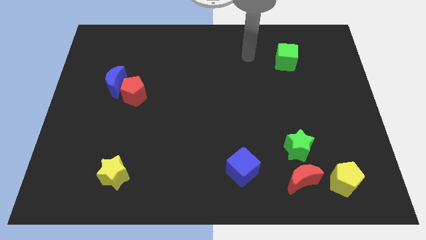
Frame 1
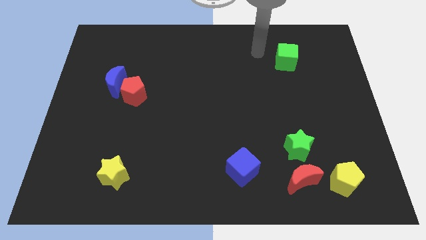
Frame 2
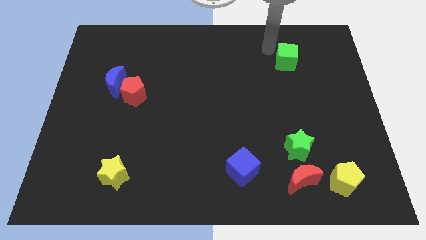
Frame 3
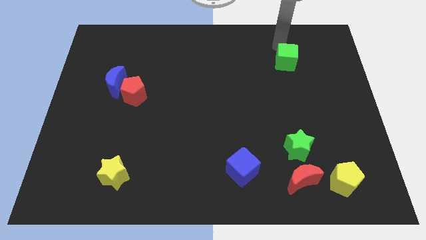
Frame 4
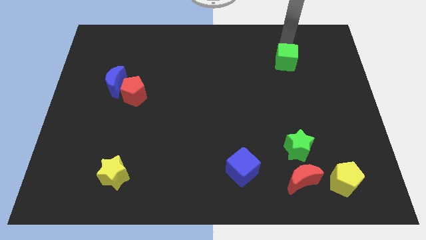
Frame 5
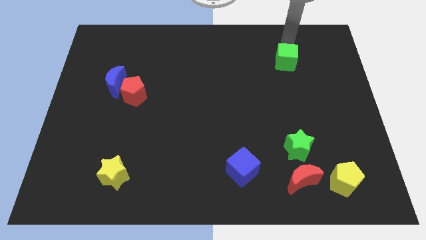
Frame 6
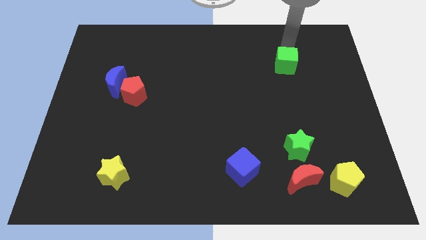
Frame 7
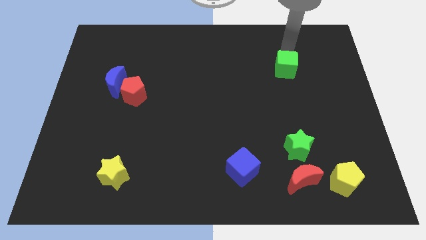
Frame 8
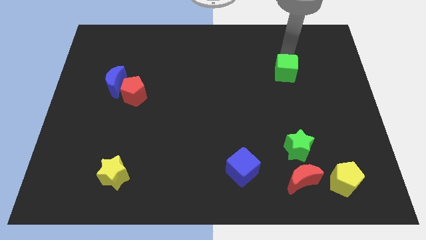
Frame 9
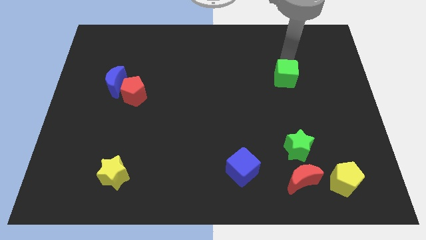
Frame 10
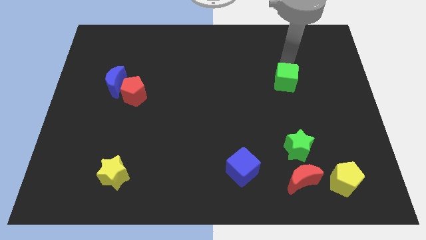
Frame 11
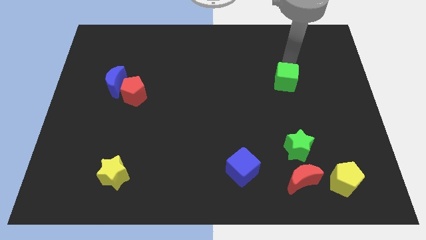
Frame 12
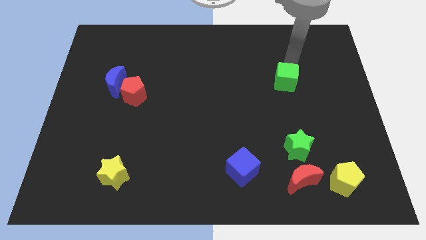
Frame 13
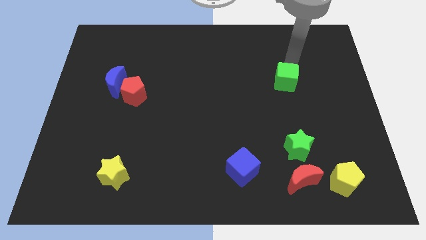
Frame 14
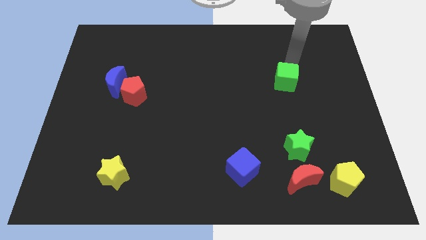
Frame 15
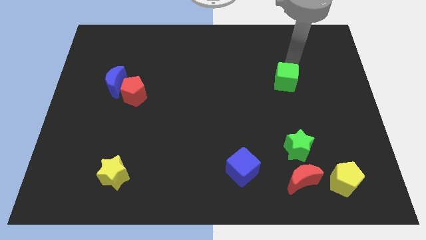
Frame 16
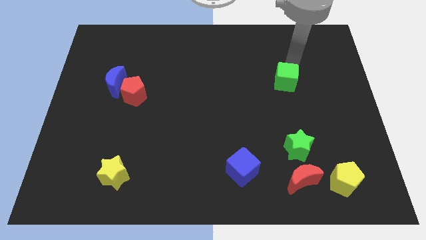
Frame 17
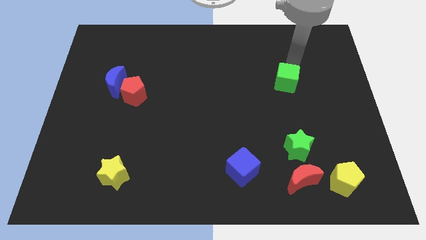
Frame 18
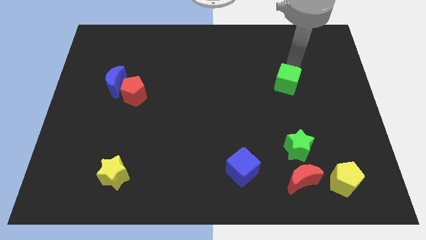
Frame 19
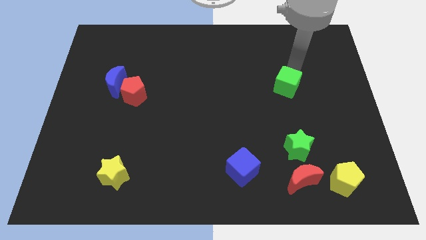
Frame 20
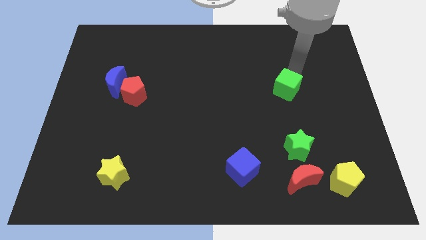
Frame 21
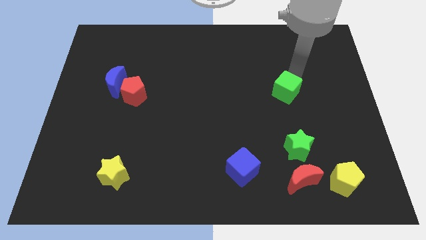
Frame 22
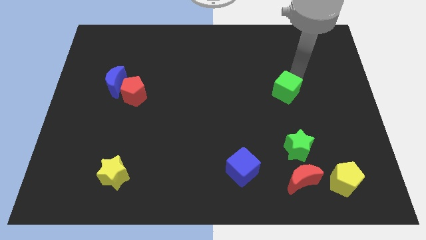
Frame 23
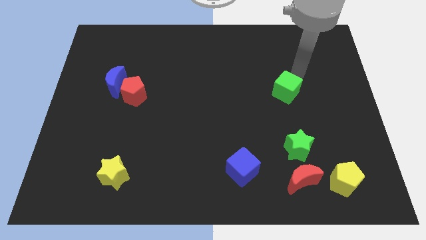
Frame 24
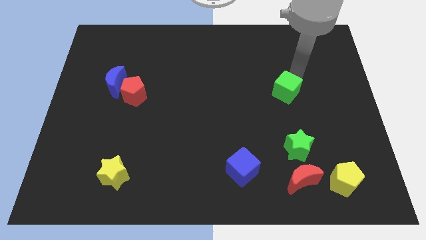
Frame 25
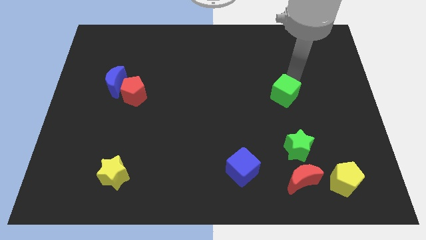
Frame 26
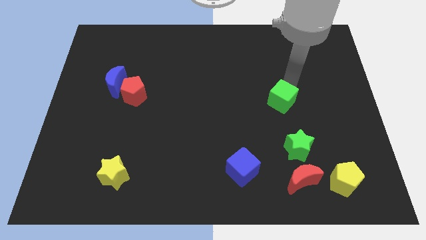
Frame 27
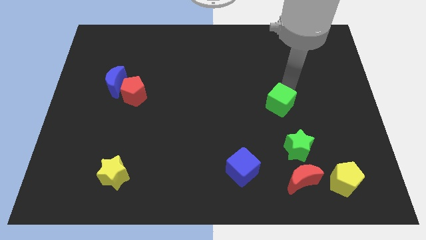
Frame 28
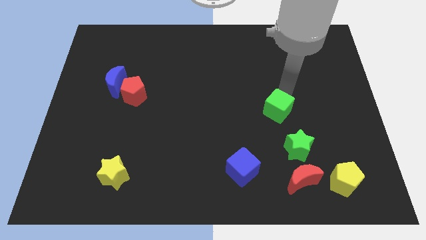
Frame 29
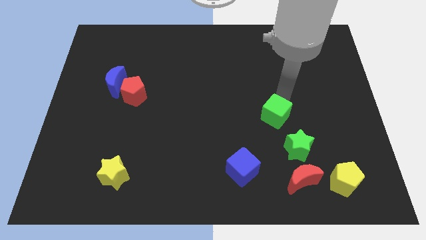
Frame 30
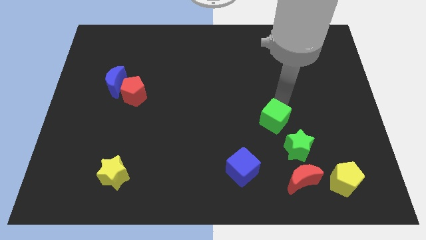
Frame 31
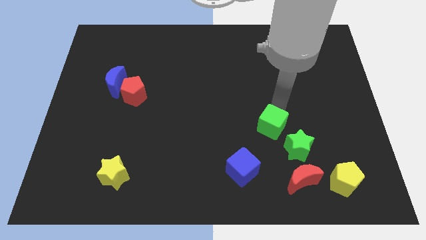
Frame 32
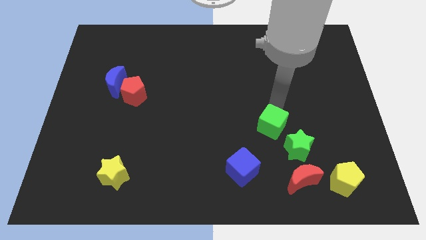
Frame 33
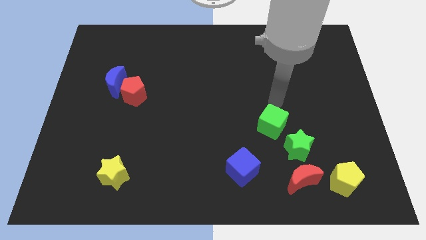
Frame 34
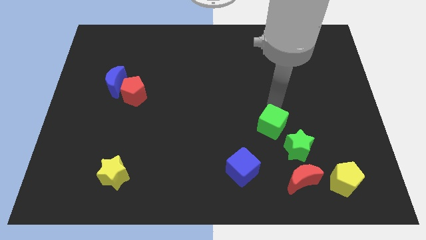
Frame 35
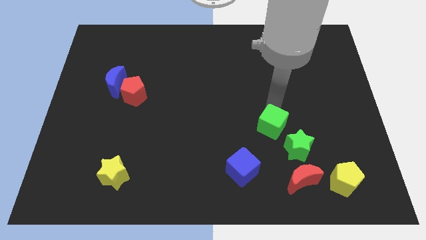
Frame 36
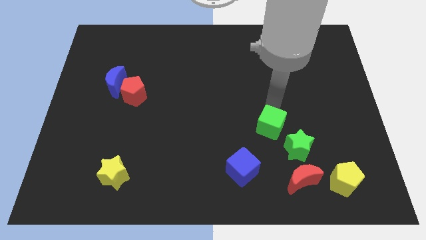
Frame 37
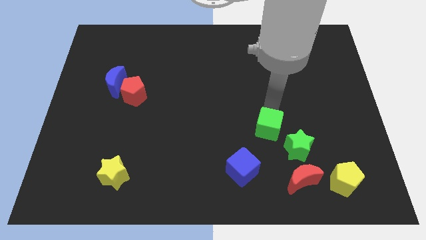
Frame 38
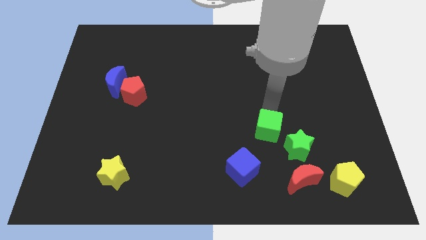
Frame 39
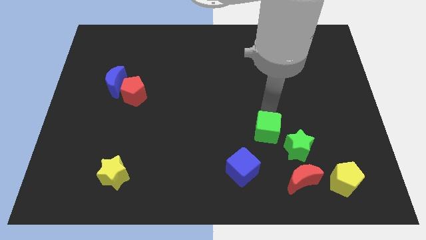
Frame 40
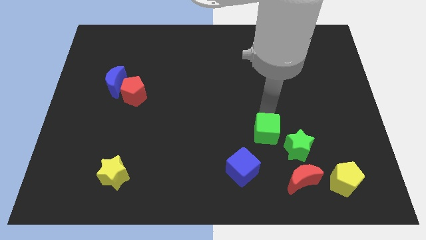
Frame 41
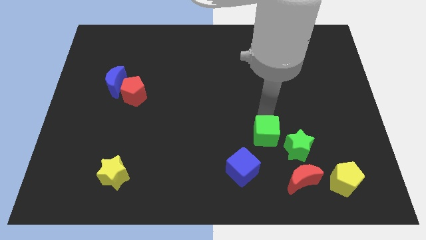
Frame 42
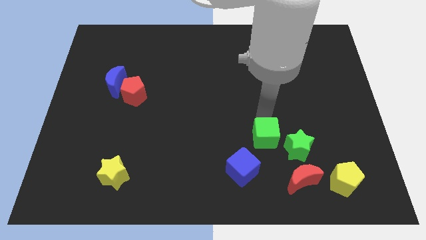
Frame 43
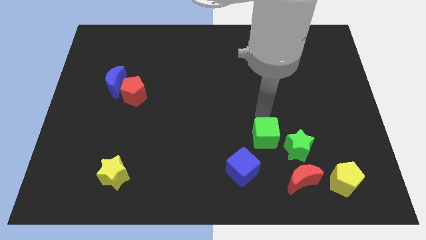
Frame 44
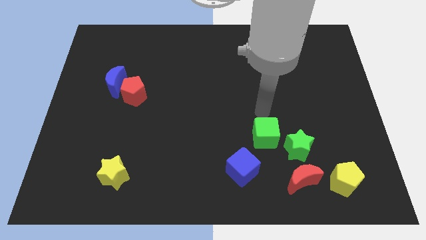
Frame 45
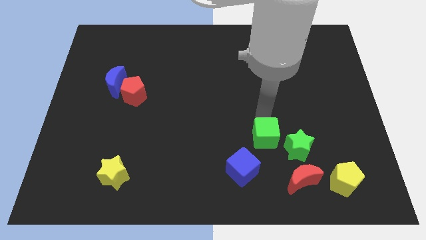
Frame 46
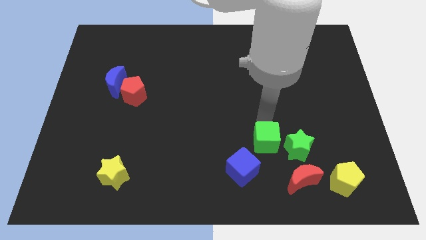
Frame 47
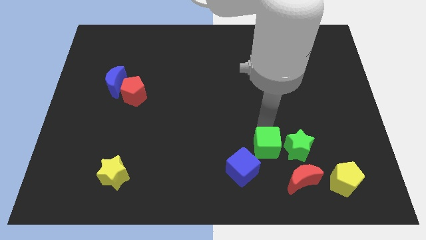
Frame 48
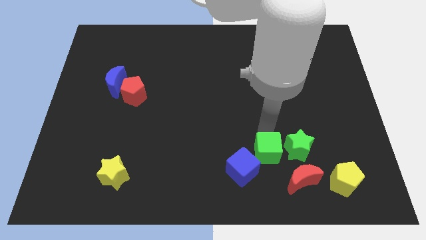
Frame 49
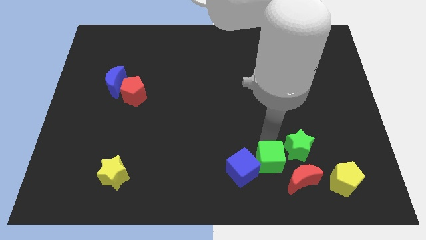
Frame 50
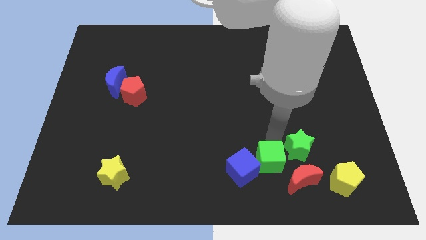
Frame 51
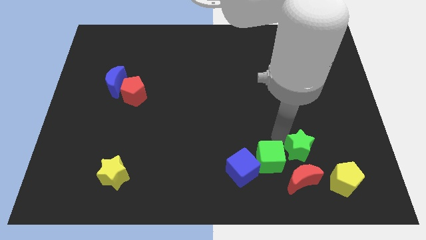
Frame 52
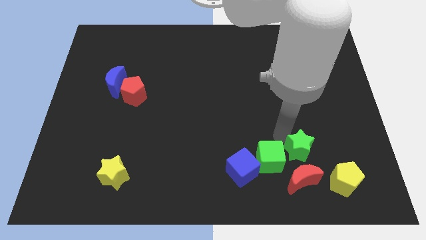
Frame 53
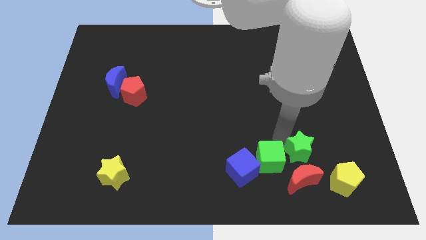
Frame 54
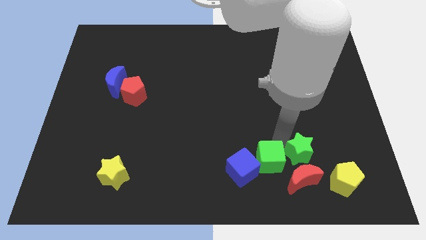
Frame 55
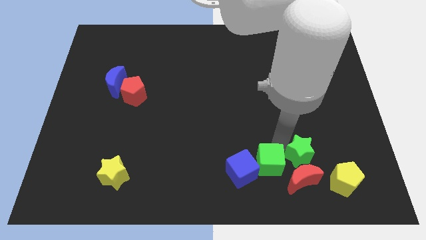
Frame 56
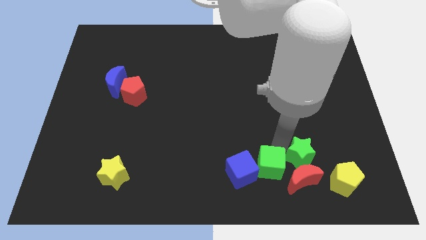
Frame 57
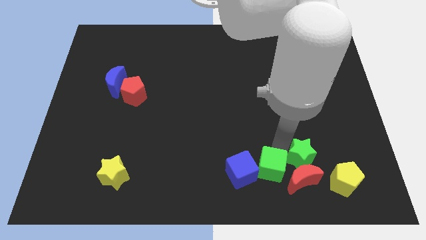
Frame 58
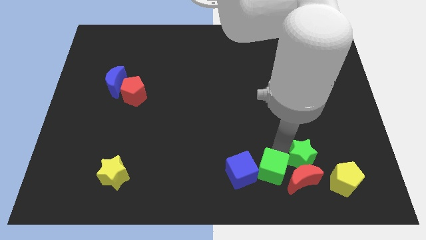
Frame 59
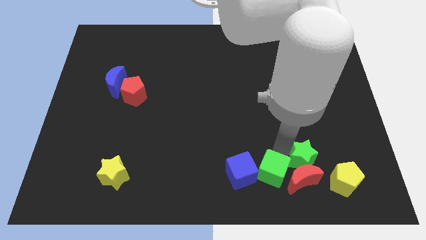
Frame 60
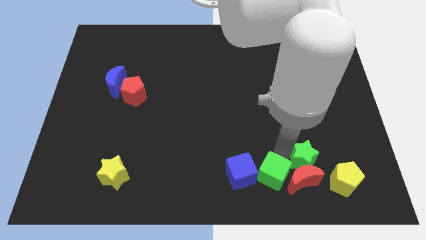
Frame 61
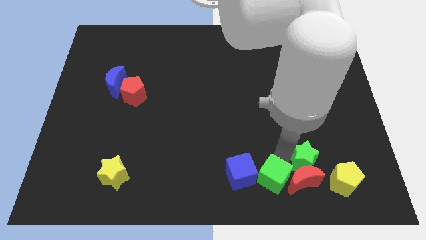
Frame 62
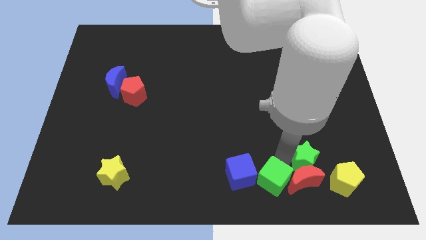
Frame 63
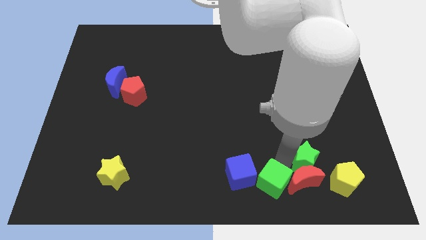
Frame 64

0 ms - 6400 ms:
move the green cube to the bottom

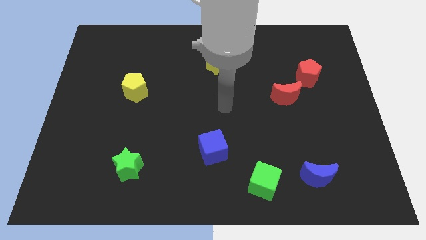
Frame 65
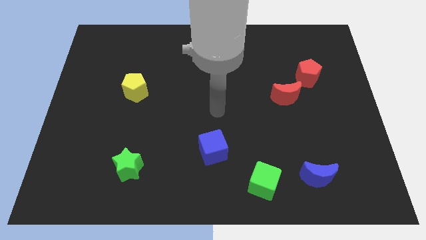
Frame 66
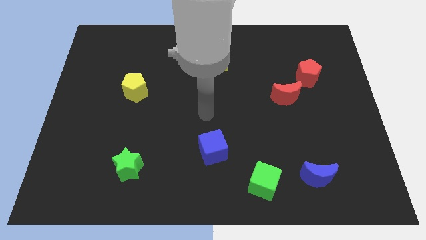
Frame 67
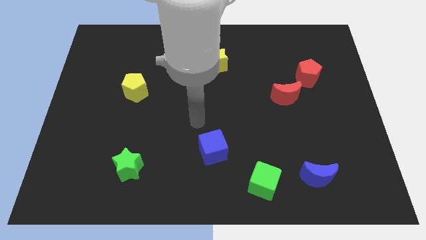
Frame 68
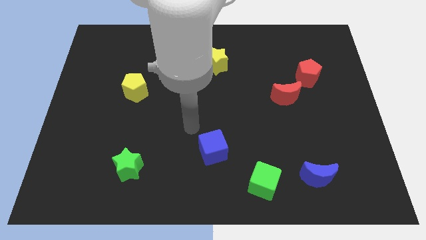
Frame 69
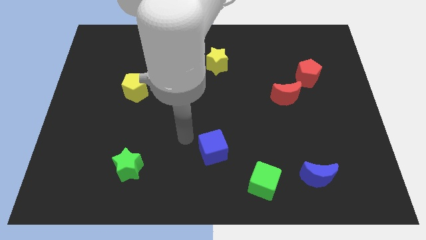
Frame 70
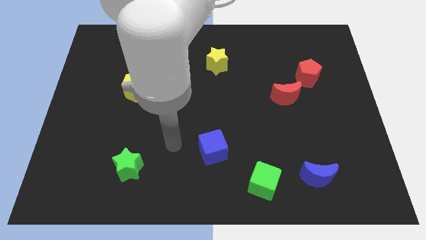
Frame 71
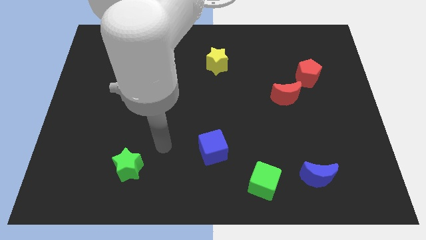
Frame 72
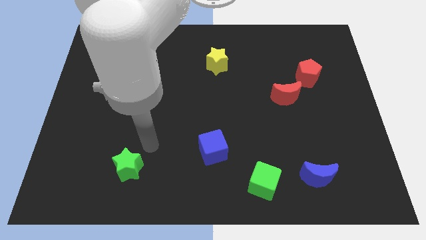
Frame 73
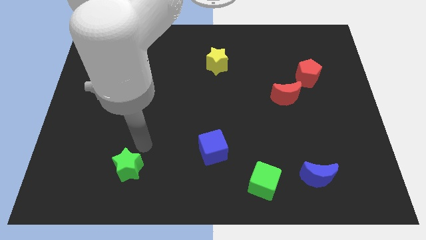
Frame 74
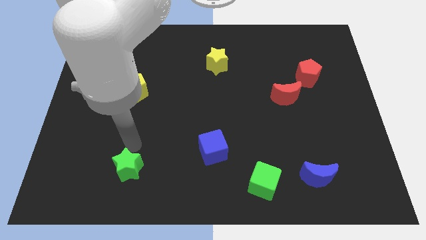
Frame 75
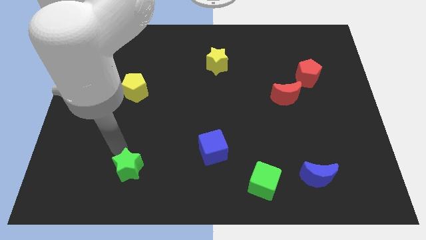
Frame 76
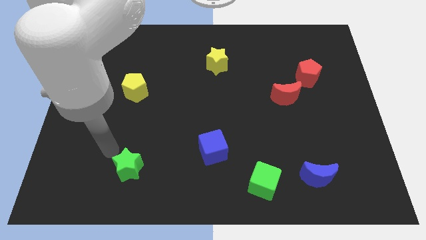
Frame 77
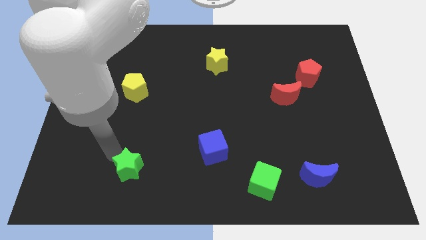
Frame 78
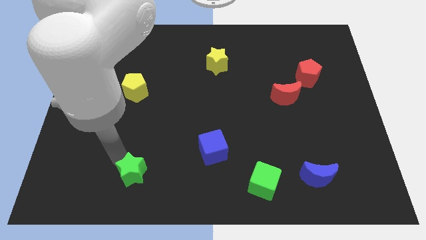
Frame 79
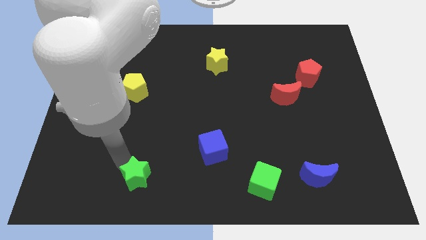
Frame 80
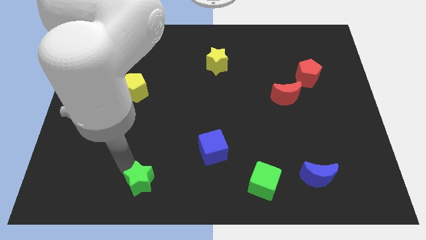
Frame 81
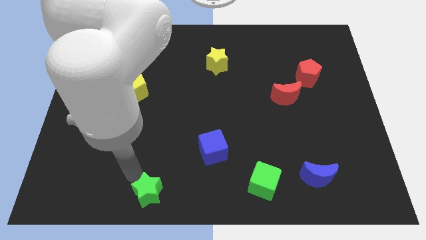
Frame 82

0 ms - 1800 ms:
slide the green star to the bottom
